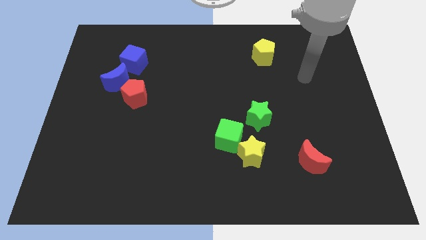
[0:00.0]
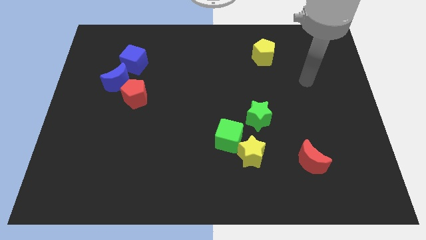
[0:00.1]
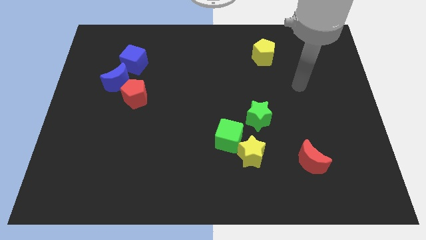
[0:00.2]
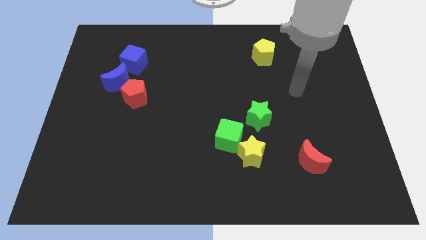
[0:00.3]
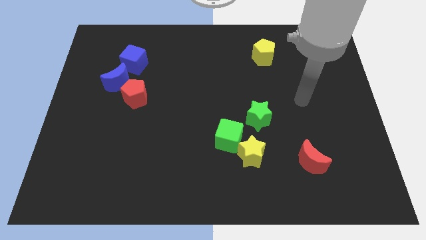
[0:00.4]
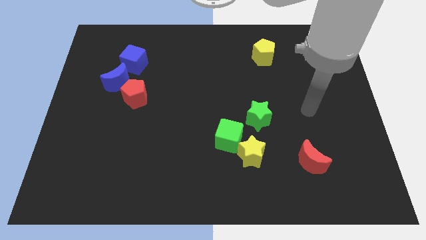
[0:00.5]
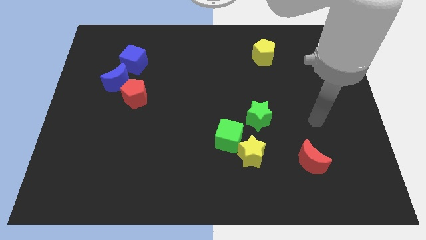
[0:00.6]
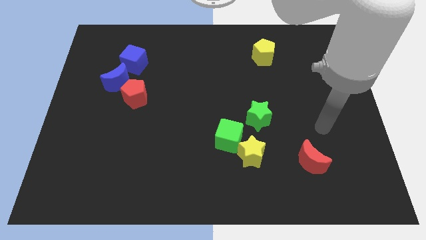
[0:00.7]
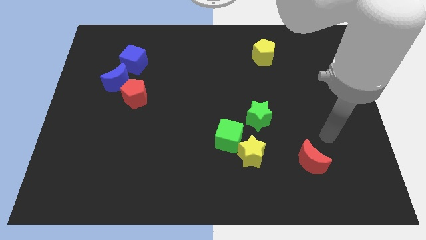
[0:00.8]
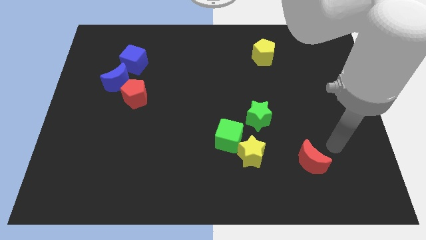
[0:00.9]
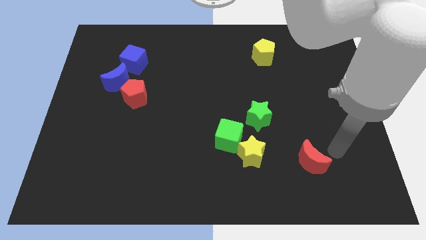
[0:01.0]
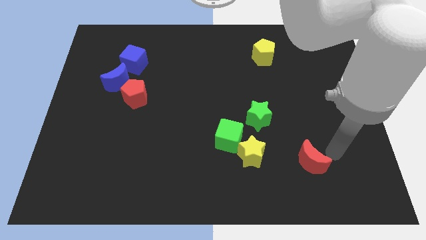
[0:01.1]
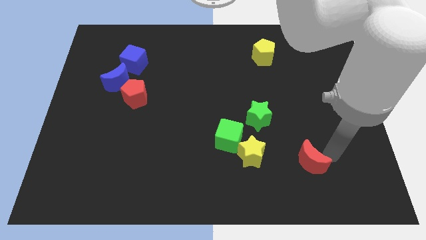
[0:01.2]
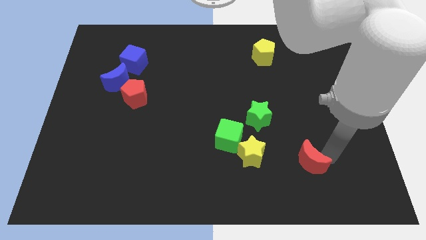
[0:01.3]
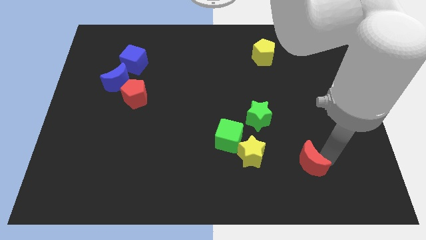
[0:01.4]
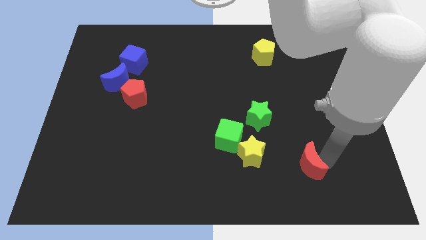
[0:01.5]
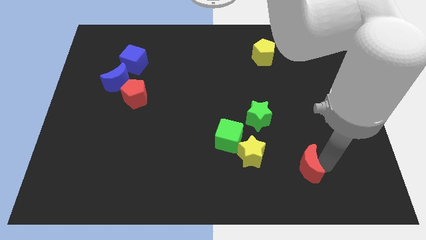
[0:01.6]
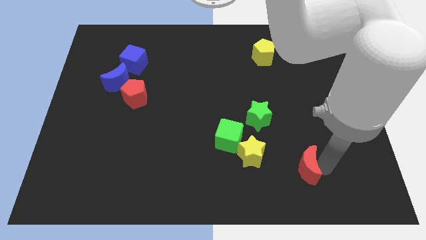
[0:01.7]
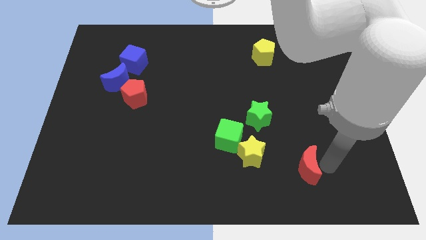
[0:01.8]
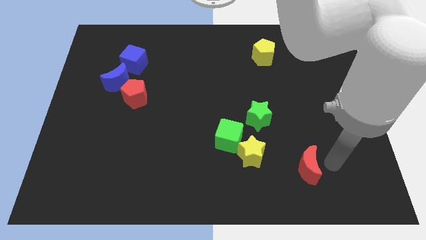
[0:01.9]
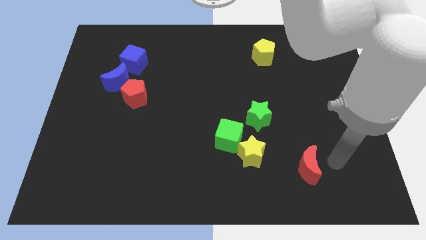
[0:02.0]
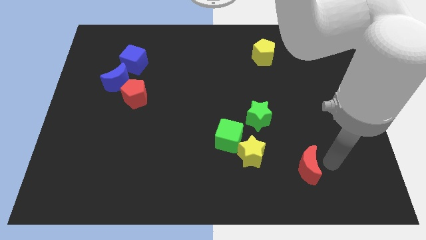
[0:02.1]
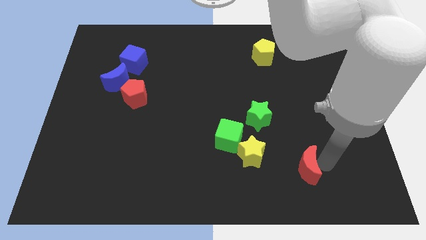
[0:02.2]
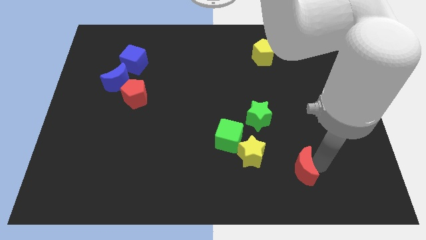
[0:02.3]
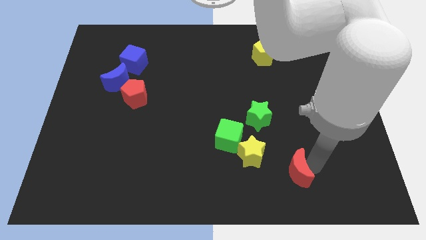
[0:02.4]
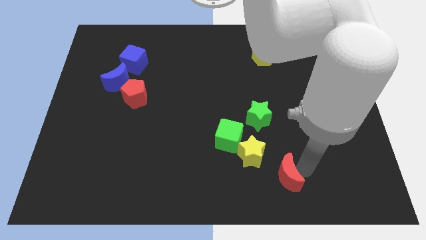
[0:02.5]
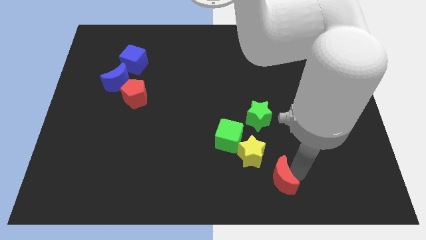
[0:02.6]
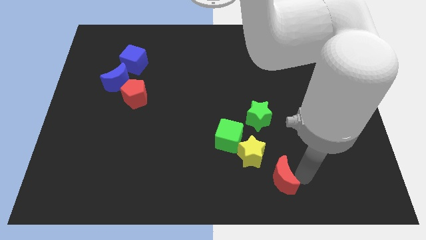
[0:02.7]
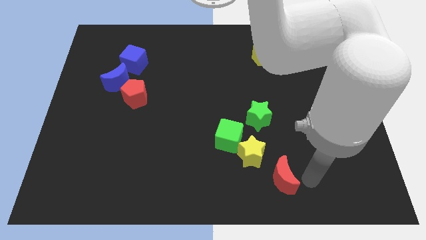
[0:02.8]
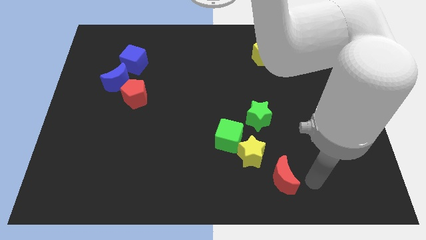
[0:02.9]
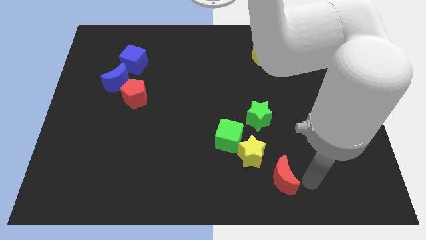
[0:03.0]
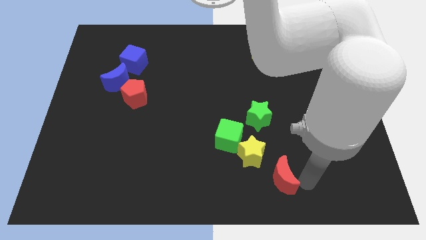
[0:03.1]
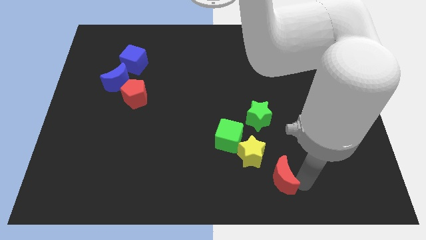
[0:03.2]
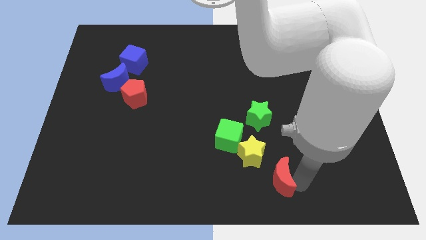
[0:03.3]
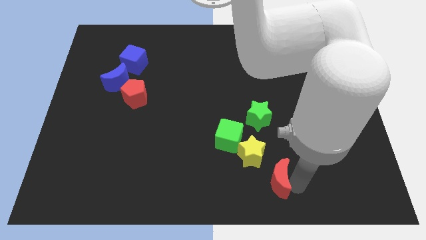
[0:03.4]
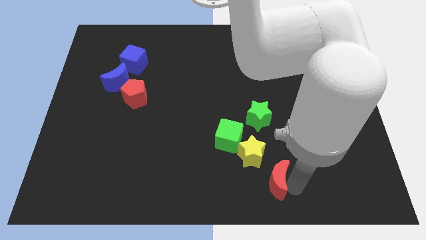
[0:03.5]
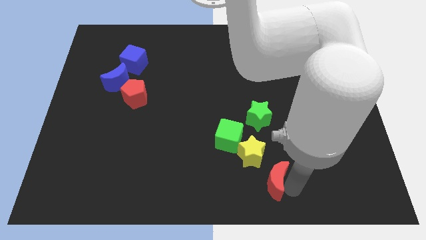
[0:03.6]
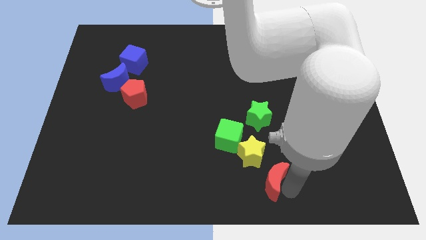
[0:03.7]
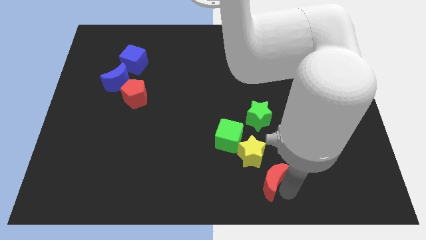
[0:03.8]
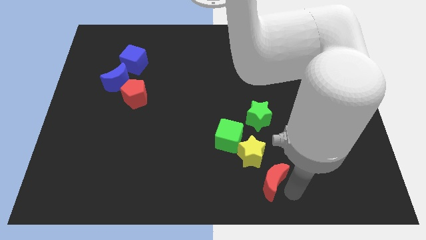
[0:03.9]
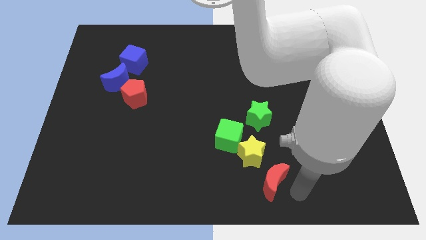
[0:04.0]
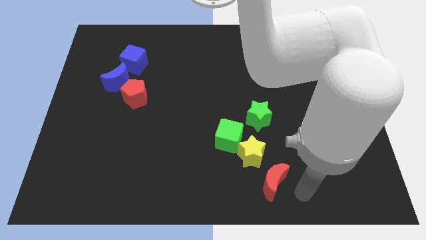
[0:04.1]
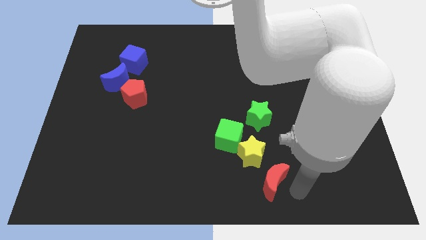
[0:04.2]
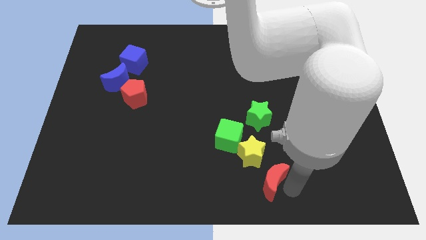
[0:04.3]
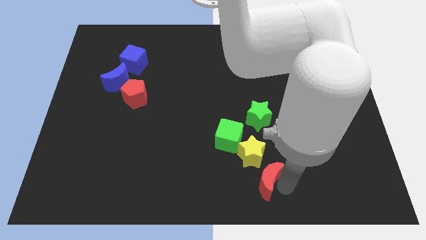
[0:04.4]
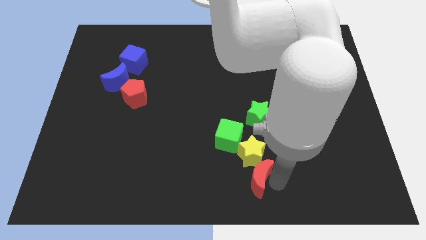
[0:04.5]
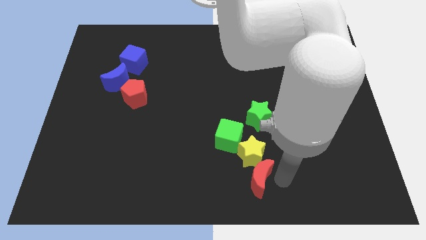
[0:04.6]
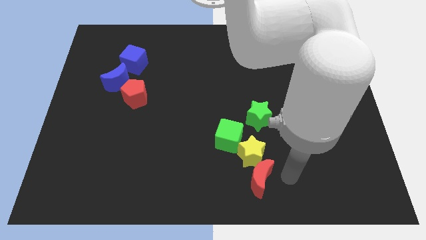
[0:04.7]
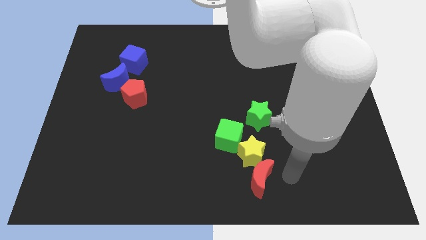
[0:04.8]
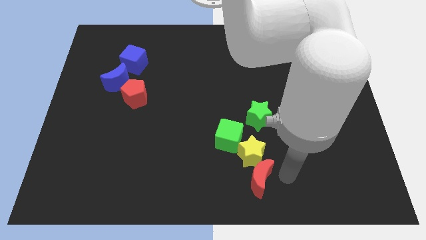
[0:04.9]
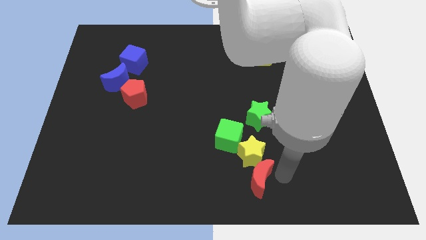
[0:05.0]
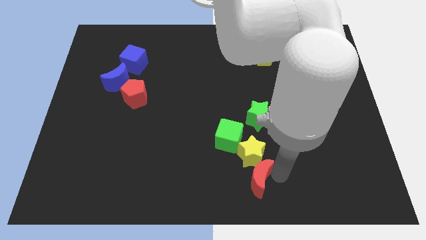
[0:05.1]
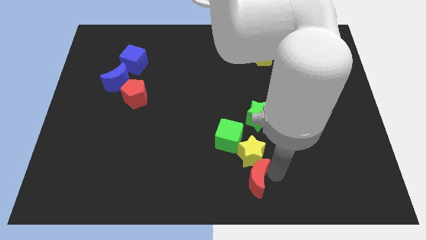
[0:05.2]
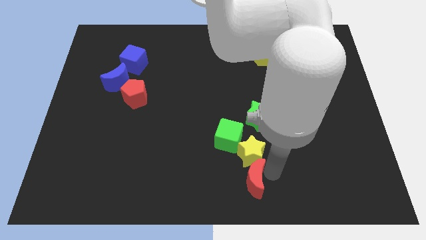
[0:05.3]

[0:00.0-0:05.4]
put the red moon to the bottom side of the green cube

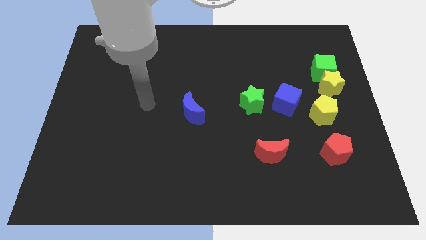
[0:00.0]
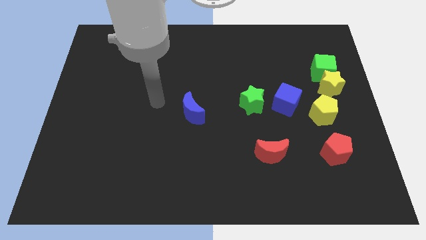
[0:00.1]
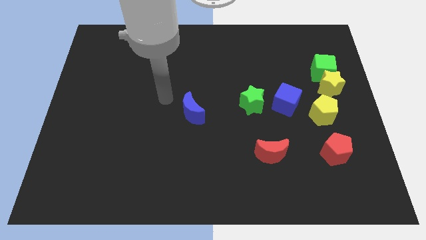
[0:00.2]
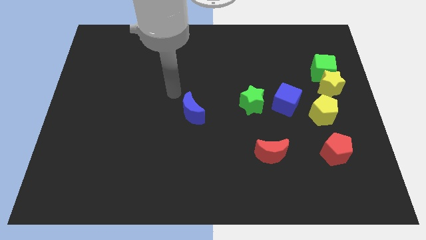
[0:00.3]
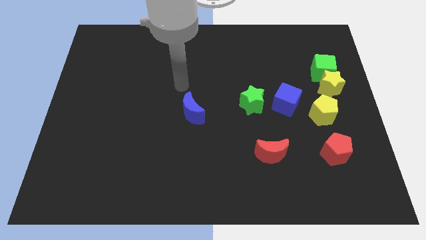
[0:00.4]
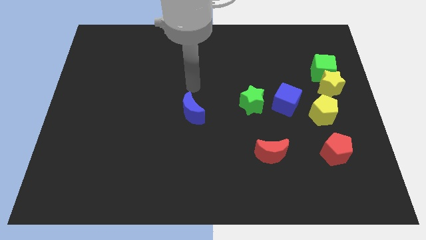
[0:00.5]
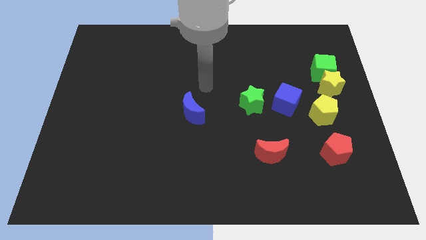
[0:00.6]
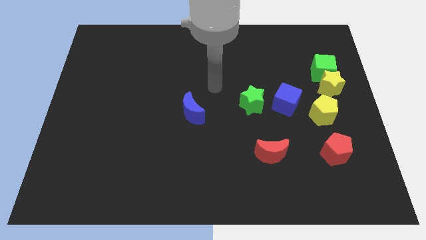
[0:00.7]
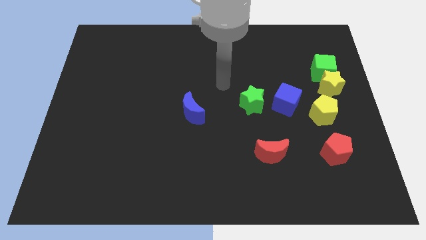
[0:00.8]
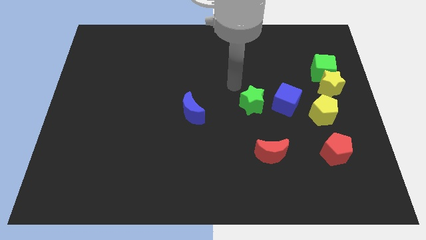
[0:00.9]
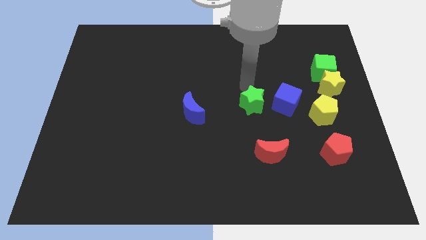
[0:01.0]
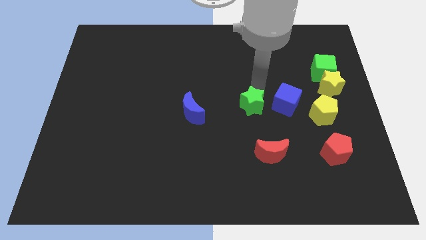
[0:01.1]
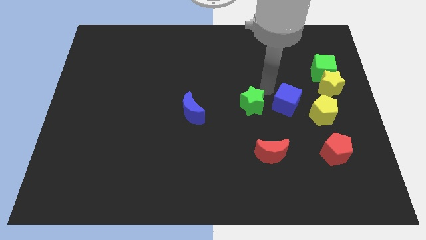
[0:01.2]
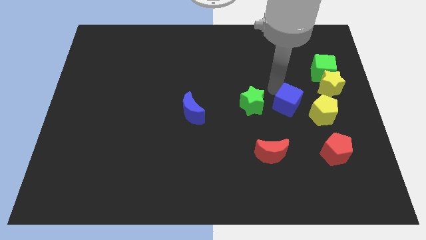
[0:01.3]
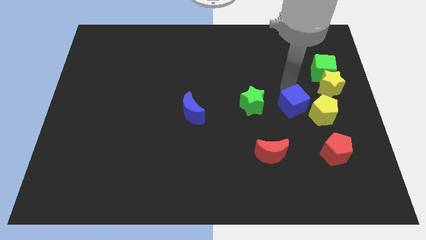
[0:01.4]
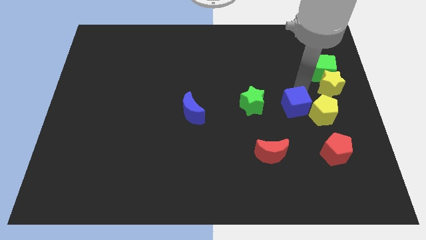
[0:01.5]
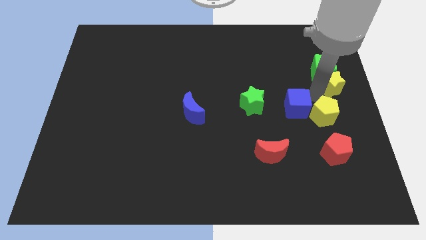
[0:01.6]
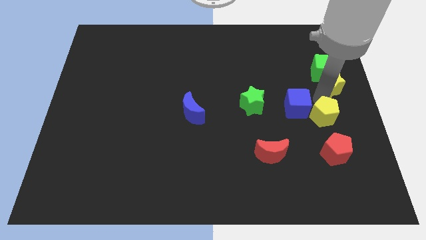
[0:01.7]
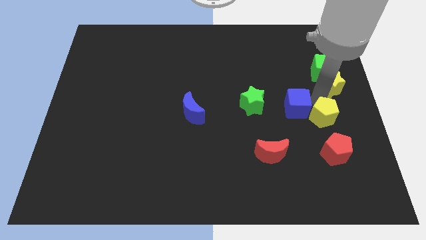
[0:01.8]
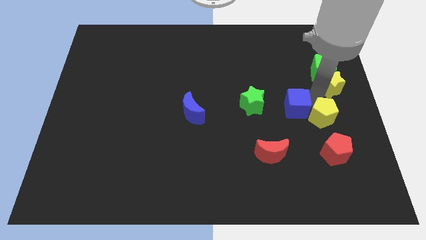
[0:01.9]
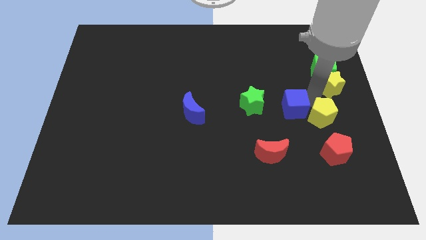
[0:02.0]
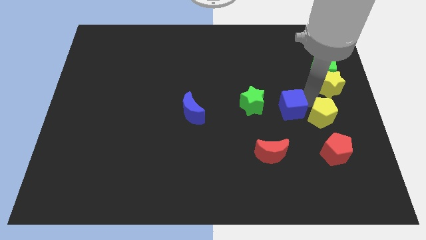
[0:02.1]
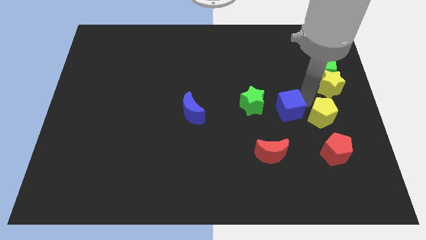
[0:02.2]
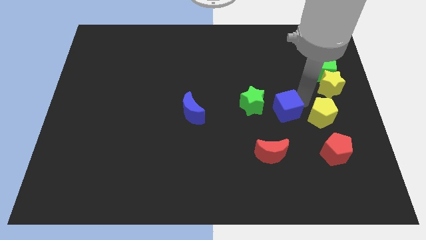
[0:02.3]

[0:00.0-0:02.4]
put the blue cube to the top of the red moon
